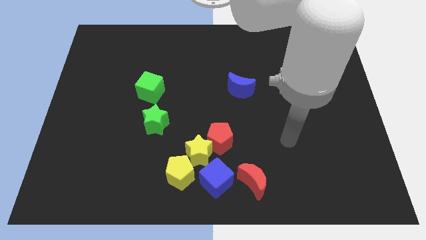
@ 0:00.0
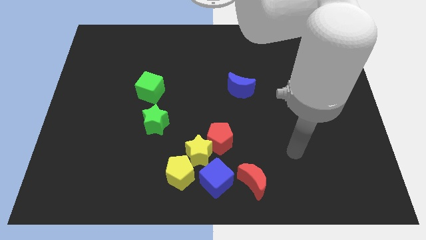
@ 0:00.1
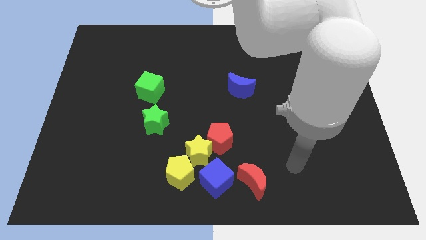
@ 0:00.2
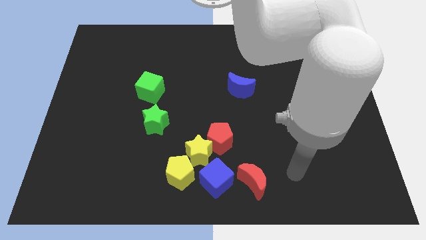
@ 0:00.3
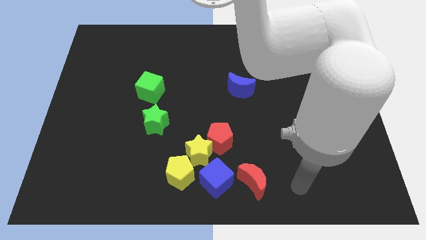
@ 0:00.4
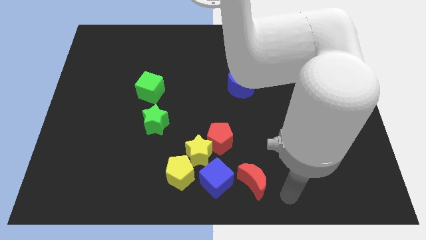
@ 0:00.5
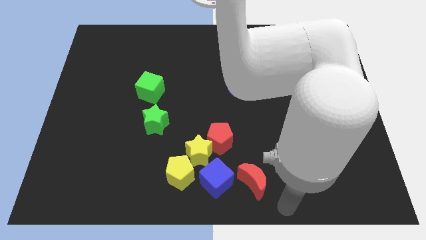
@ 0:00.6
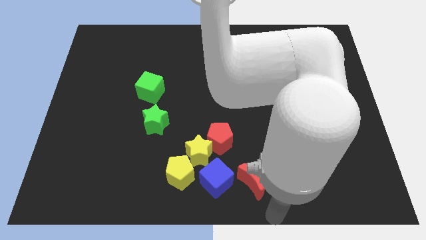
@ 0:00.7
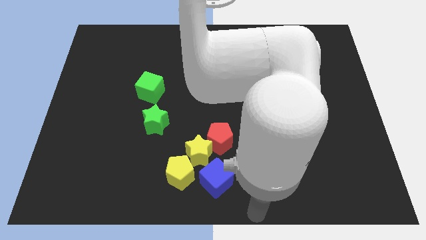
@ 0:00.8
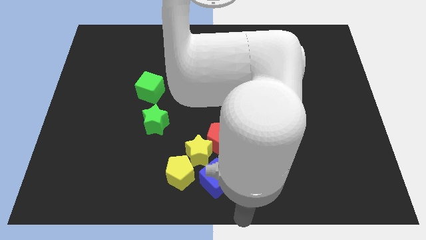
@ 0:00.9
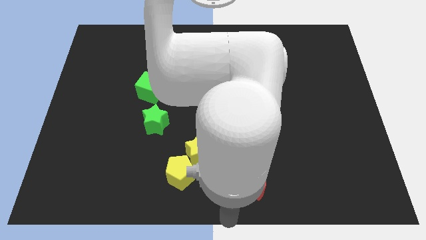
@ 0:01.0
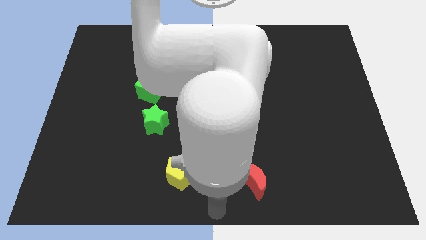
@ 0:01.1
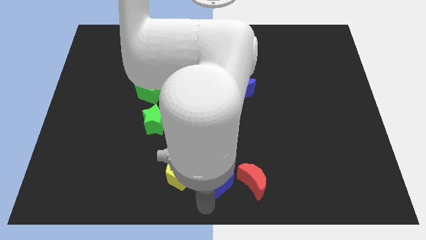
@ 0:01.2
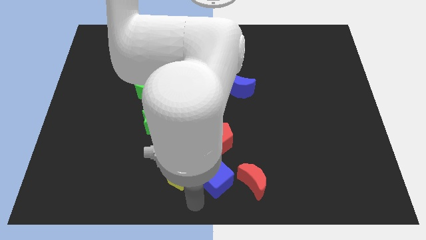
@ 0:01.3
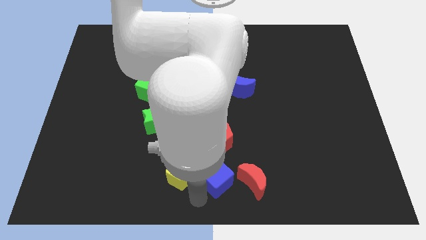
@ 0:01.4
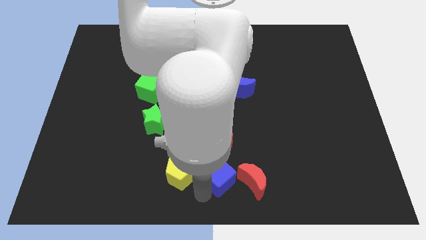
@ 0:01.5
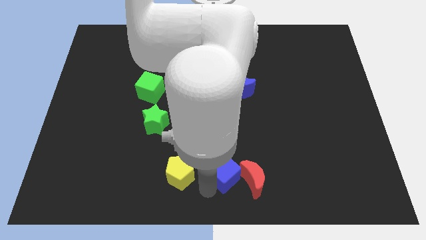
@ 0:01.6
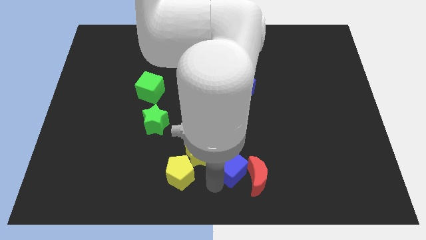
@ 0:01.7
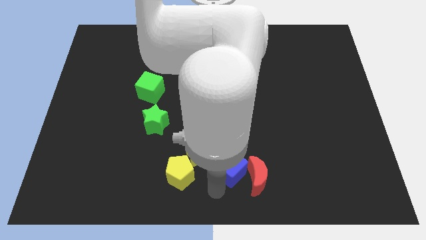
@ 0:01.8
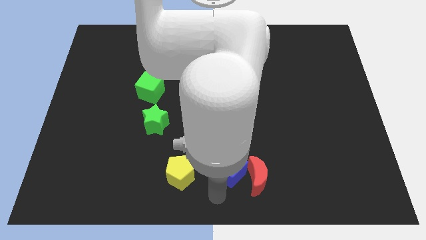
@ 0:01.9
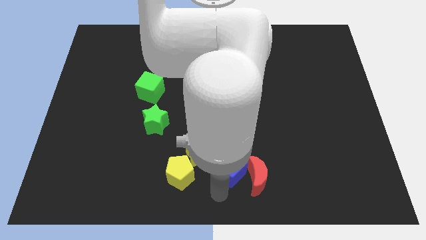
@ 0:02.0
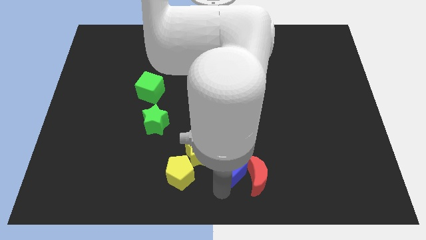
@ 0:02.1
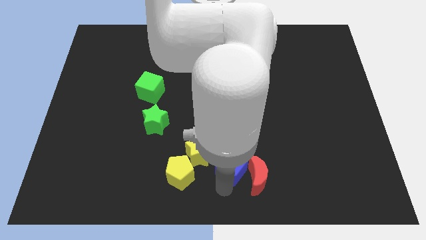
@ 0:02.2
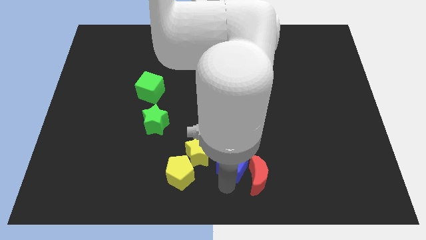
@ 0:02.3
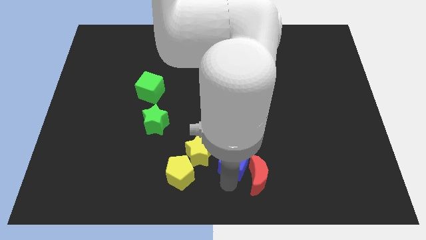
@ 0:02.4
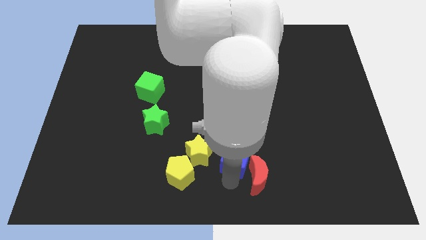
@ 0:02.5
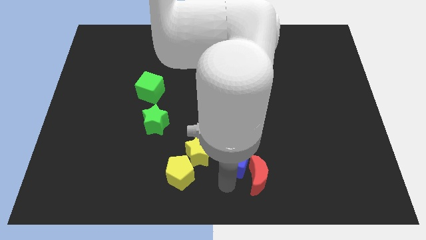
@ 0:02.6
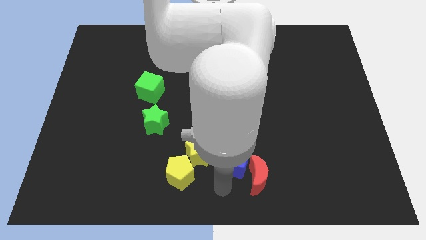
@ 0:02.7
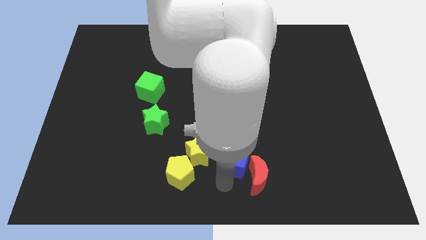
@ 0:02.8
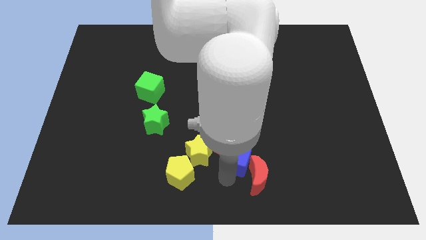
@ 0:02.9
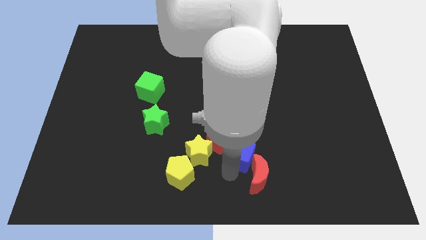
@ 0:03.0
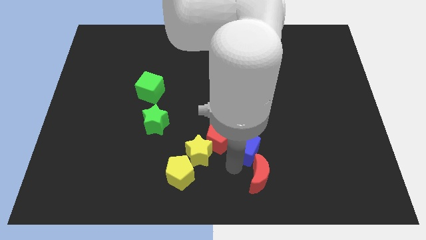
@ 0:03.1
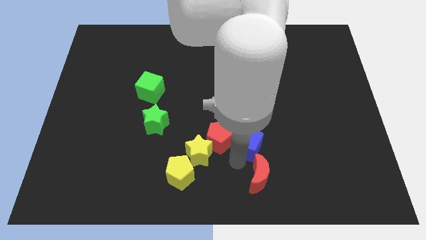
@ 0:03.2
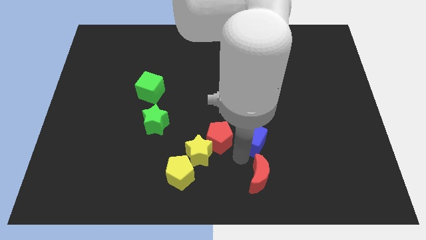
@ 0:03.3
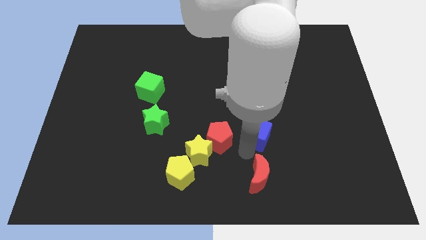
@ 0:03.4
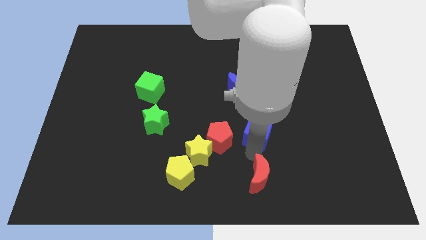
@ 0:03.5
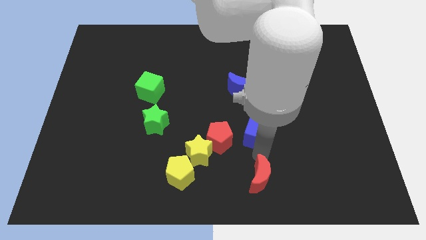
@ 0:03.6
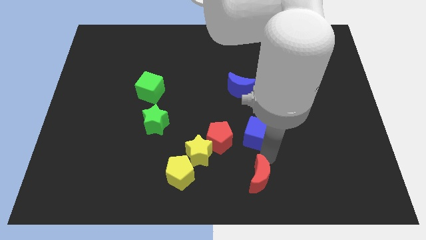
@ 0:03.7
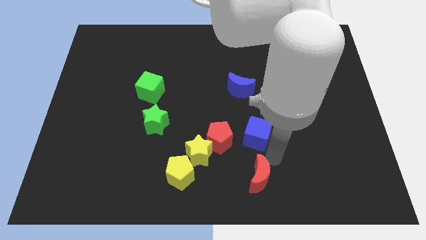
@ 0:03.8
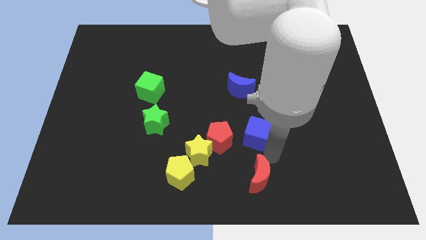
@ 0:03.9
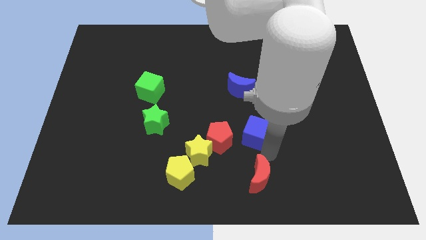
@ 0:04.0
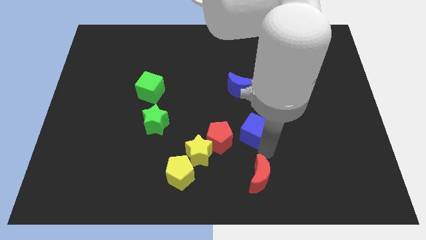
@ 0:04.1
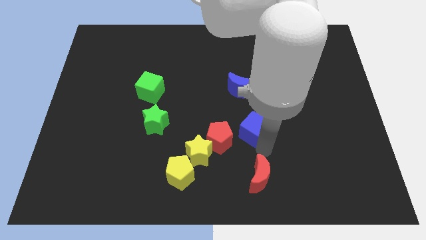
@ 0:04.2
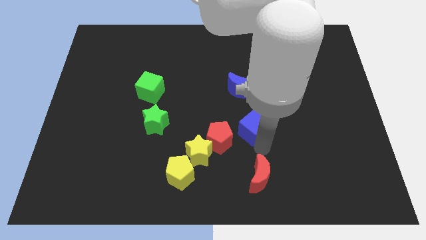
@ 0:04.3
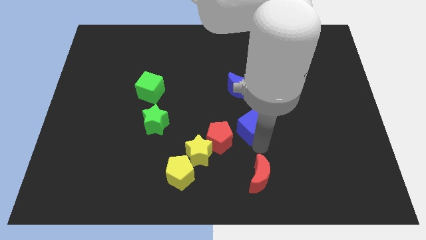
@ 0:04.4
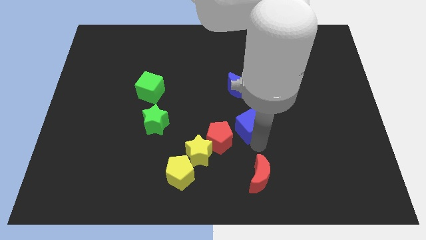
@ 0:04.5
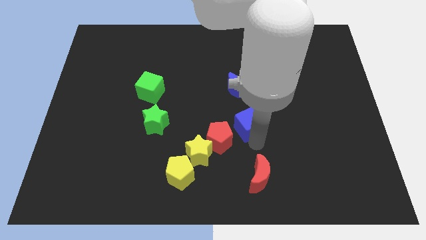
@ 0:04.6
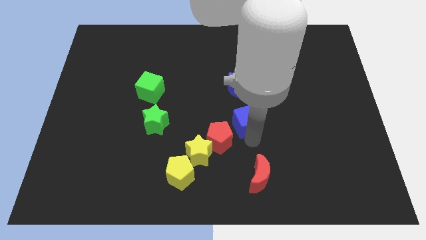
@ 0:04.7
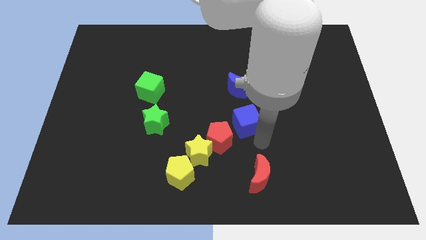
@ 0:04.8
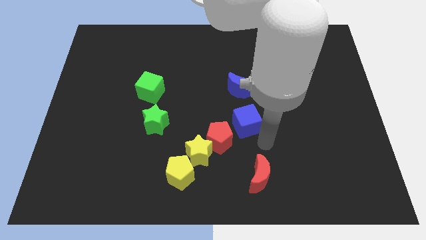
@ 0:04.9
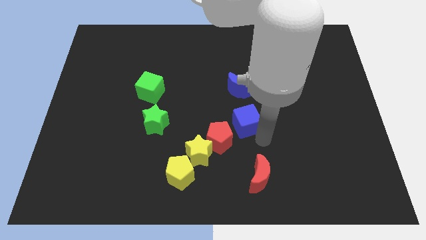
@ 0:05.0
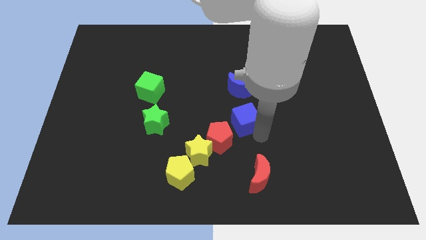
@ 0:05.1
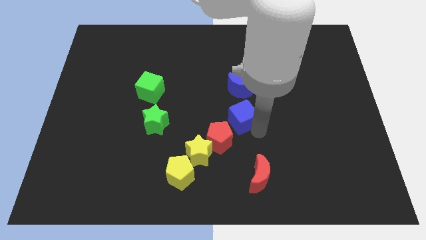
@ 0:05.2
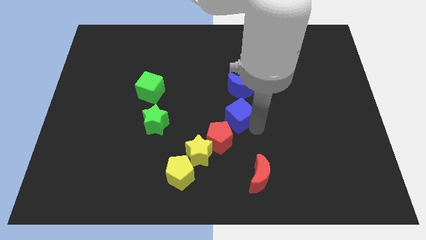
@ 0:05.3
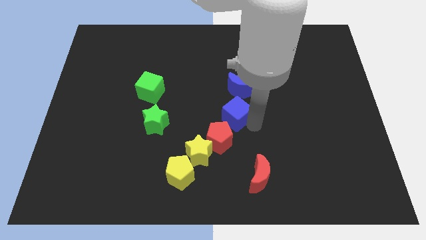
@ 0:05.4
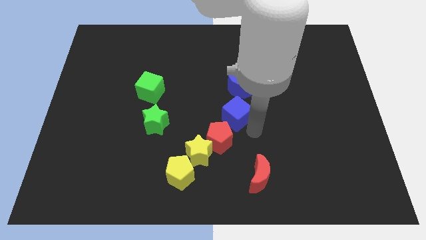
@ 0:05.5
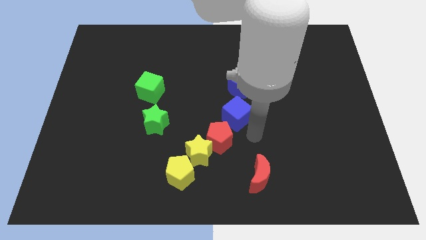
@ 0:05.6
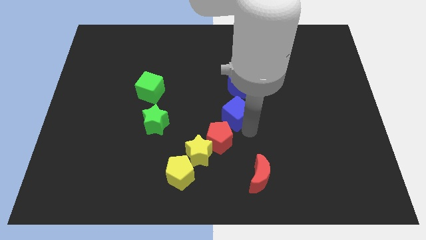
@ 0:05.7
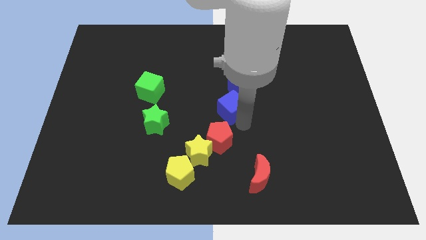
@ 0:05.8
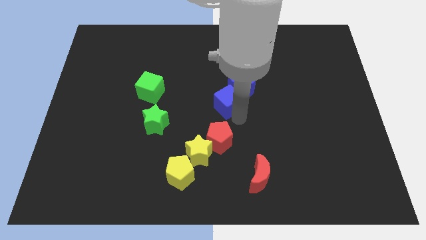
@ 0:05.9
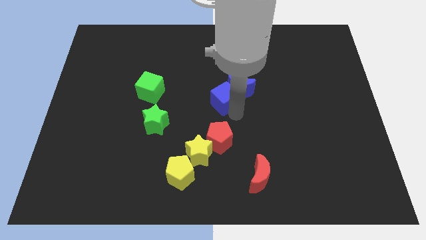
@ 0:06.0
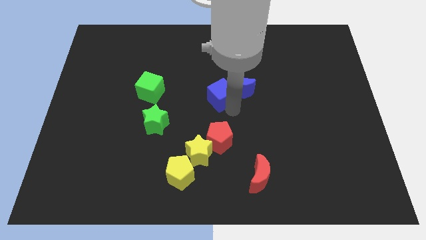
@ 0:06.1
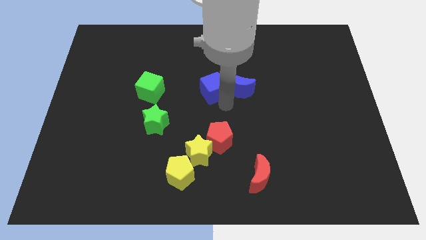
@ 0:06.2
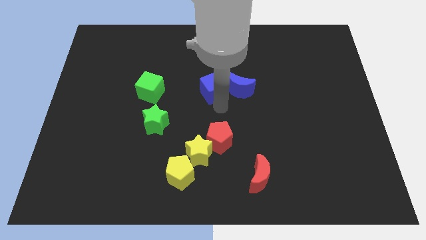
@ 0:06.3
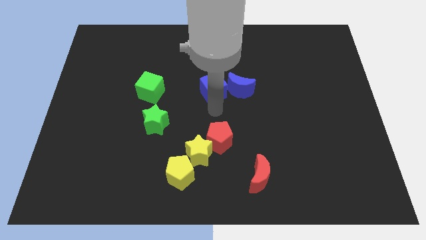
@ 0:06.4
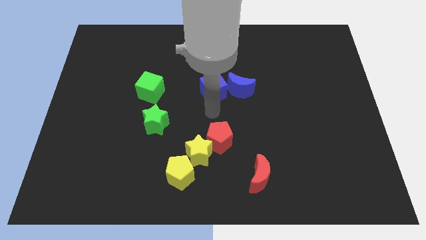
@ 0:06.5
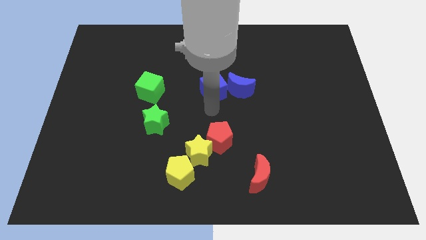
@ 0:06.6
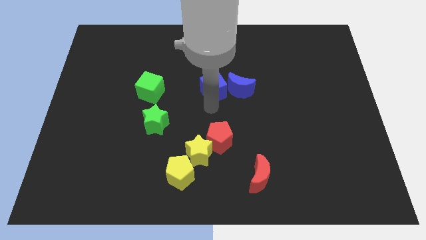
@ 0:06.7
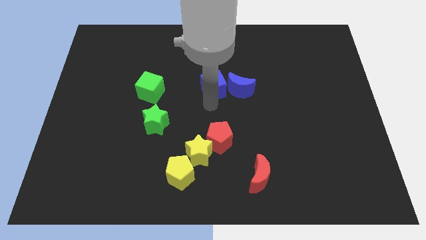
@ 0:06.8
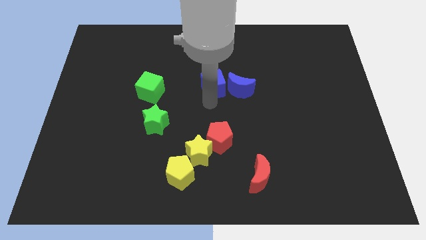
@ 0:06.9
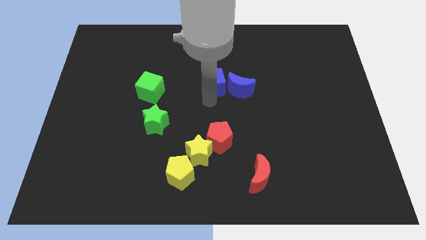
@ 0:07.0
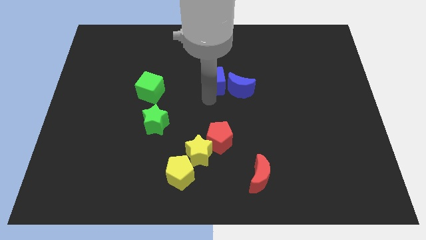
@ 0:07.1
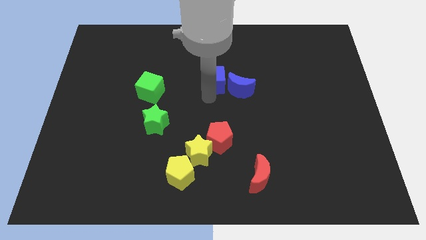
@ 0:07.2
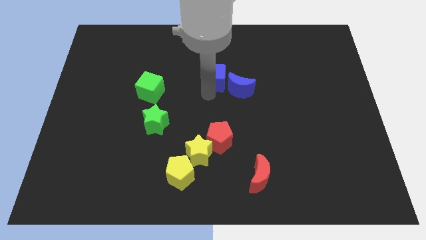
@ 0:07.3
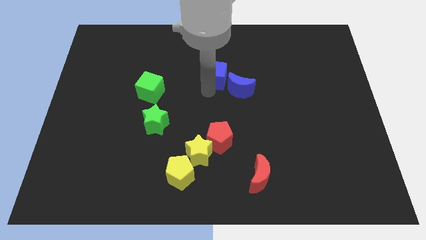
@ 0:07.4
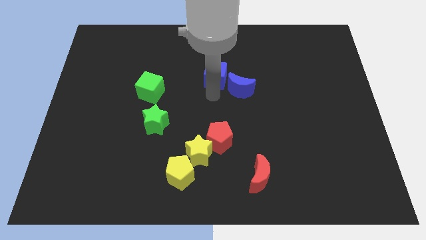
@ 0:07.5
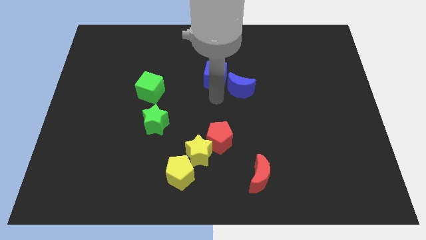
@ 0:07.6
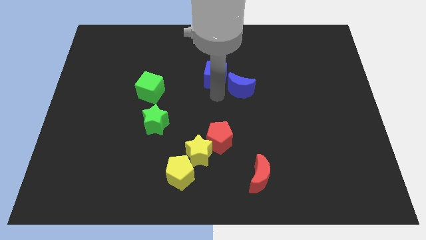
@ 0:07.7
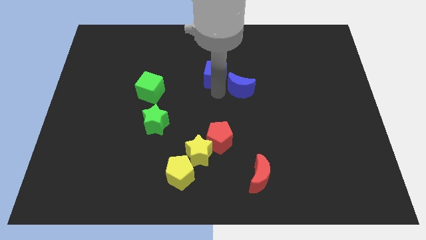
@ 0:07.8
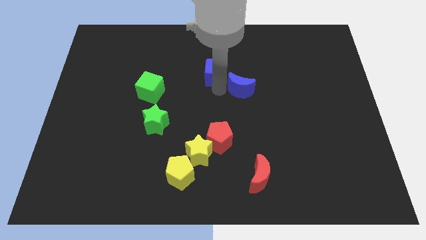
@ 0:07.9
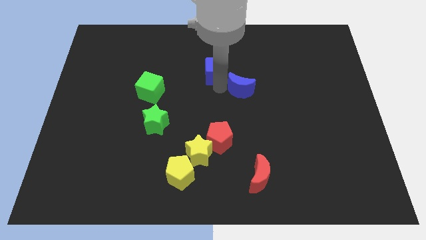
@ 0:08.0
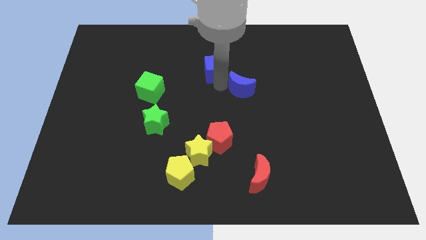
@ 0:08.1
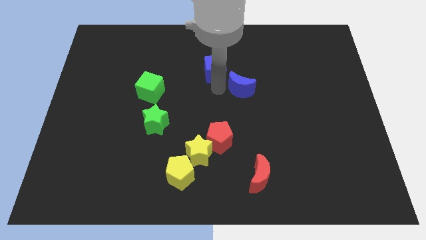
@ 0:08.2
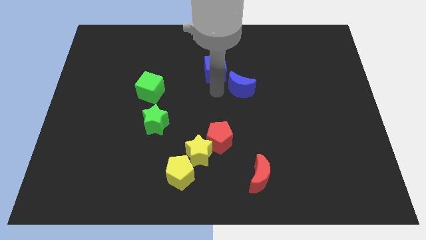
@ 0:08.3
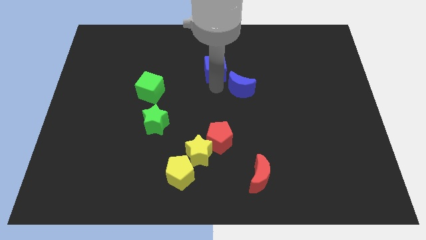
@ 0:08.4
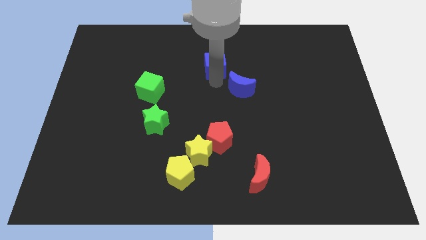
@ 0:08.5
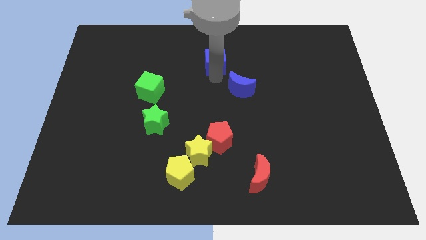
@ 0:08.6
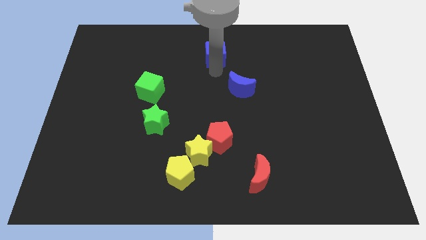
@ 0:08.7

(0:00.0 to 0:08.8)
push the blue cube to the towards your base
